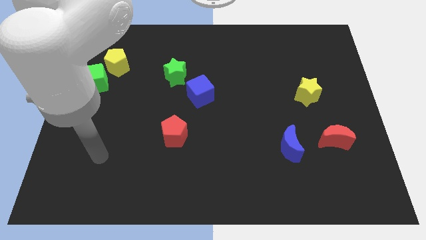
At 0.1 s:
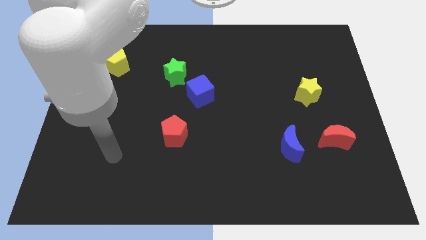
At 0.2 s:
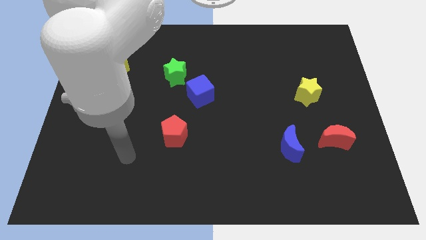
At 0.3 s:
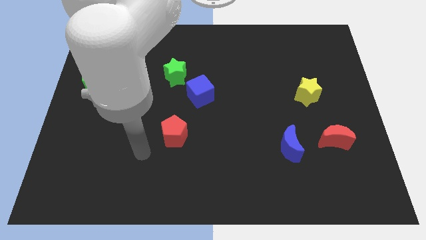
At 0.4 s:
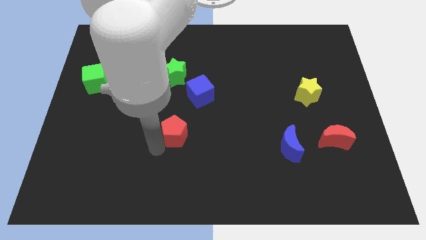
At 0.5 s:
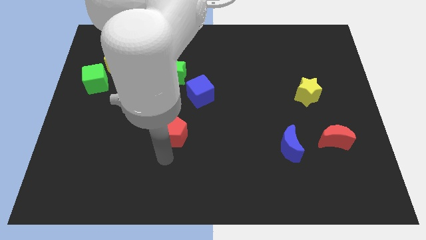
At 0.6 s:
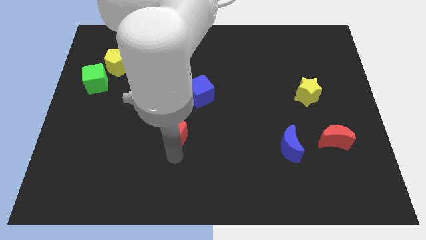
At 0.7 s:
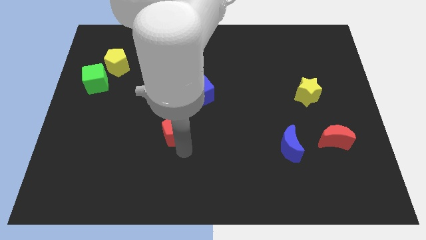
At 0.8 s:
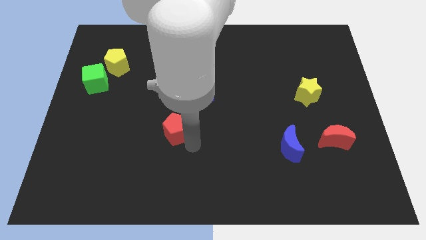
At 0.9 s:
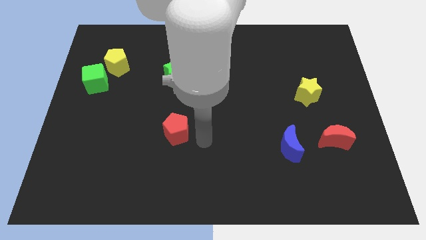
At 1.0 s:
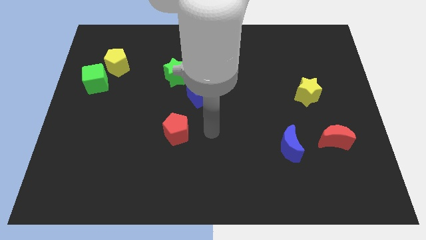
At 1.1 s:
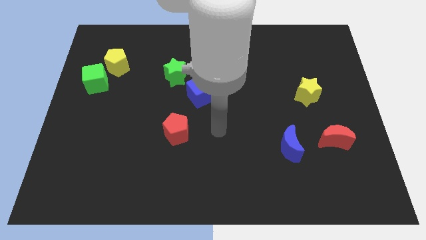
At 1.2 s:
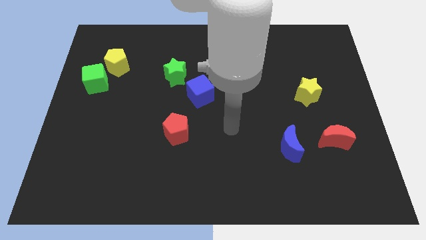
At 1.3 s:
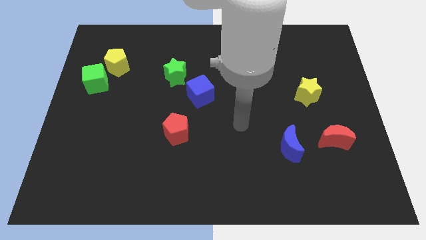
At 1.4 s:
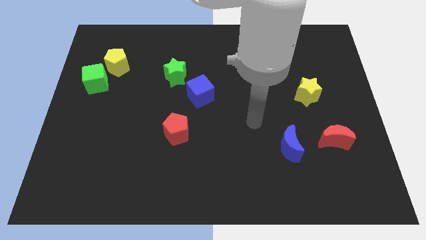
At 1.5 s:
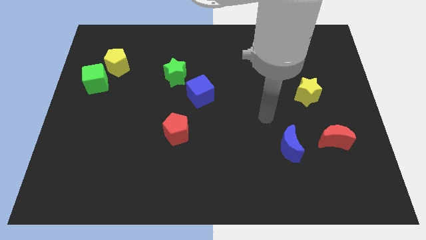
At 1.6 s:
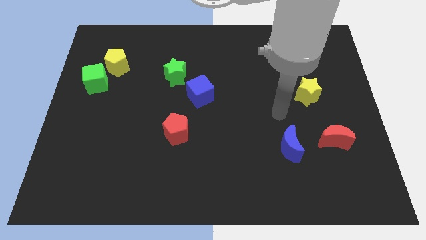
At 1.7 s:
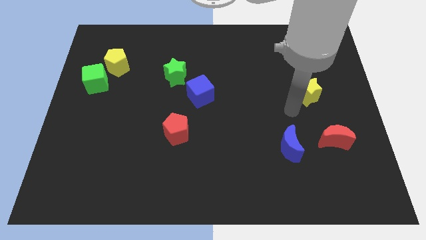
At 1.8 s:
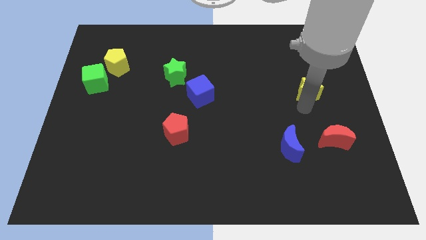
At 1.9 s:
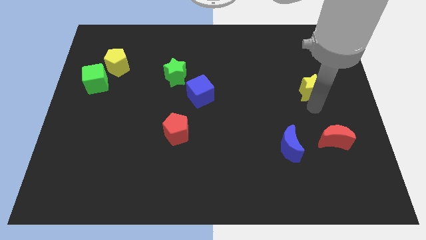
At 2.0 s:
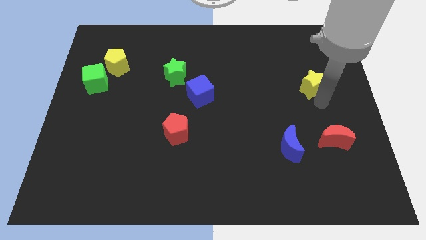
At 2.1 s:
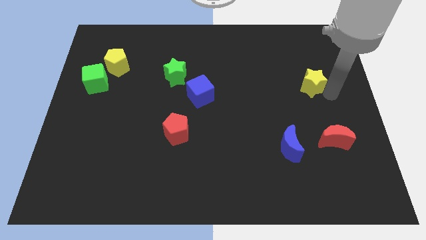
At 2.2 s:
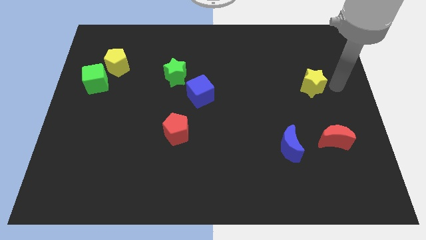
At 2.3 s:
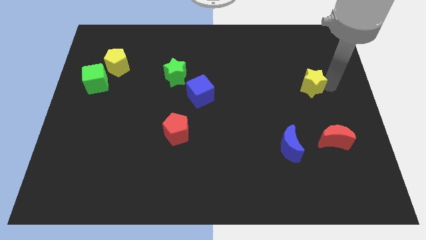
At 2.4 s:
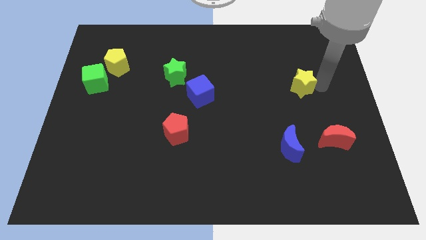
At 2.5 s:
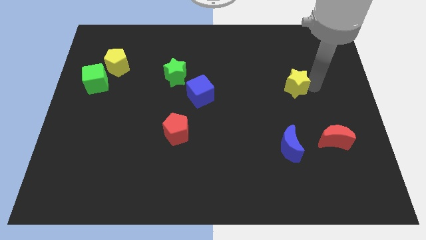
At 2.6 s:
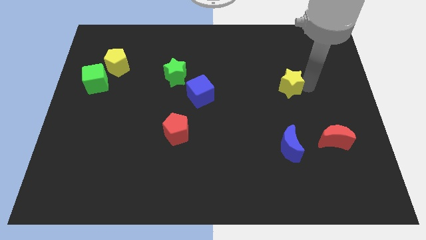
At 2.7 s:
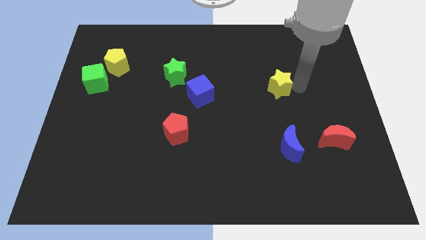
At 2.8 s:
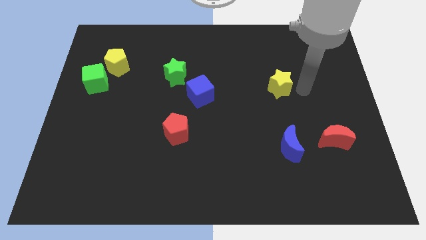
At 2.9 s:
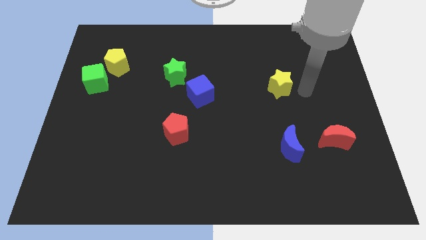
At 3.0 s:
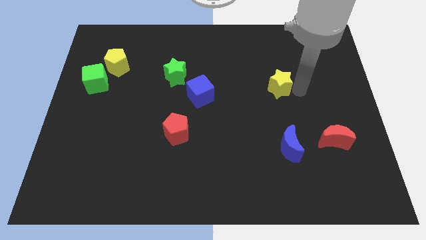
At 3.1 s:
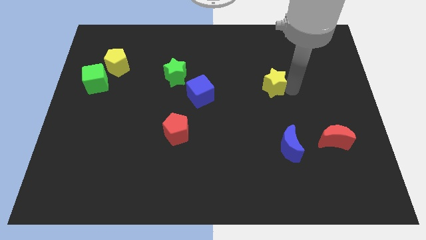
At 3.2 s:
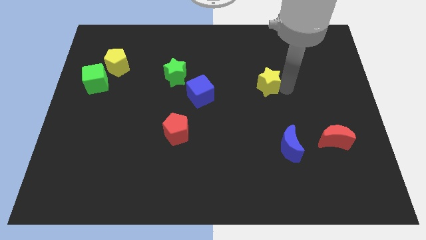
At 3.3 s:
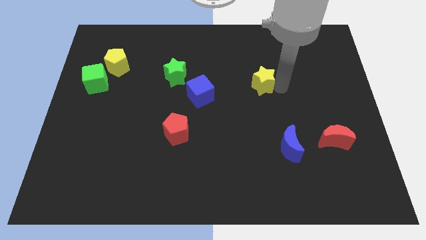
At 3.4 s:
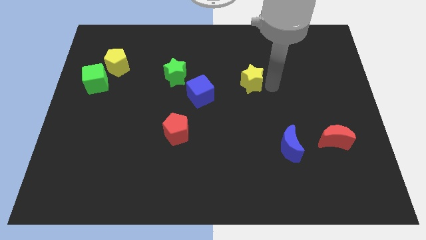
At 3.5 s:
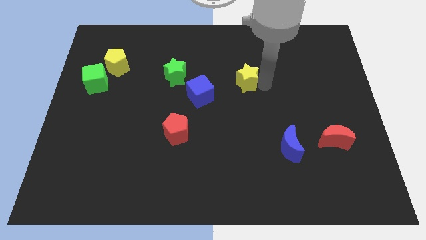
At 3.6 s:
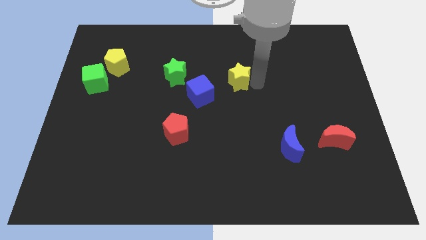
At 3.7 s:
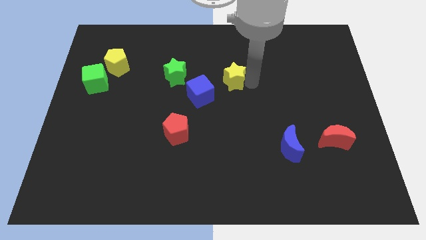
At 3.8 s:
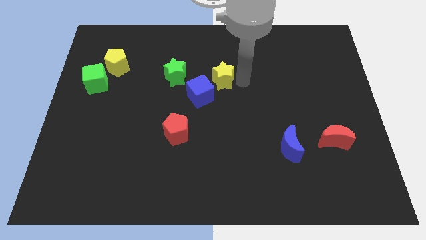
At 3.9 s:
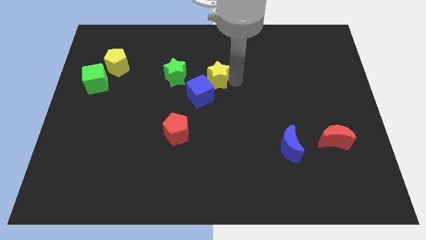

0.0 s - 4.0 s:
slide the yellow star to the left

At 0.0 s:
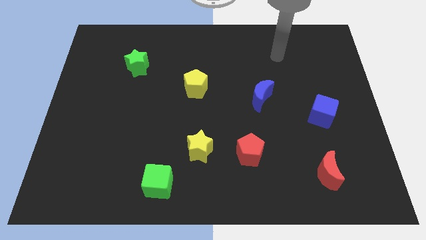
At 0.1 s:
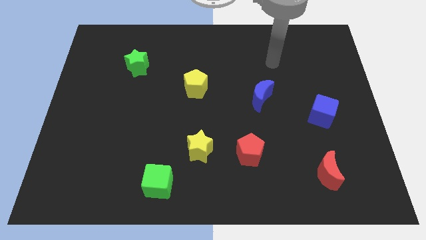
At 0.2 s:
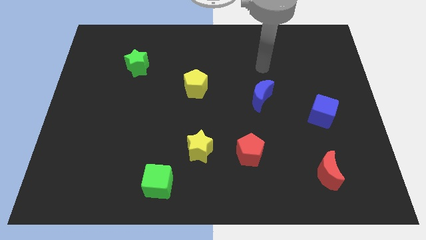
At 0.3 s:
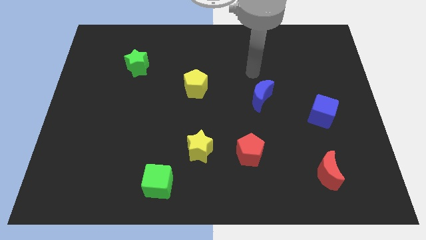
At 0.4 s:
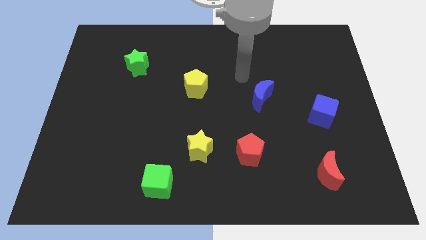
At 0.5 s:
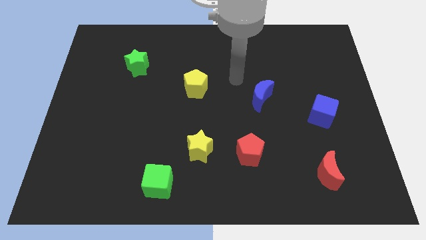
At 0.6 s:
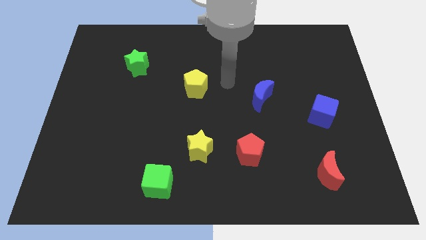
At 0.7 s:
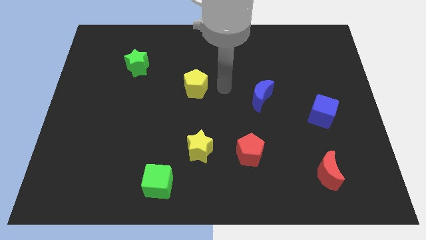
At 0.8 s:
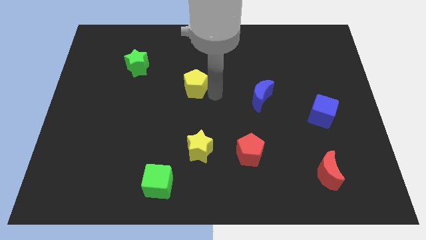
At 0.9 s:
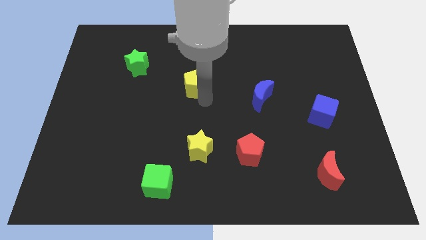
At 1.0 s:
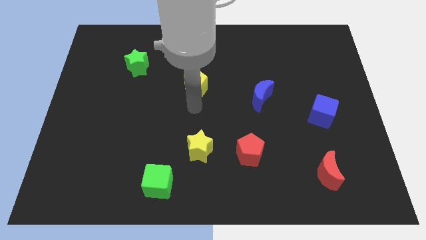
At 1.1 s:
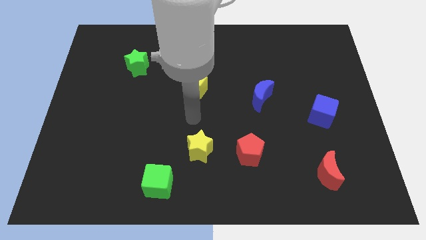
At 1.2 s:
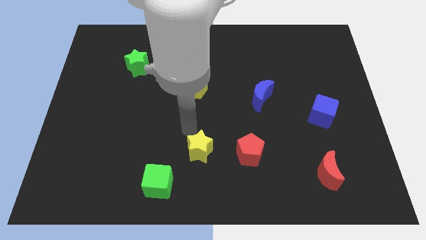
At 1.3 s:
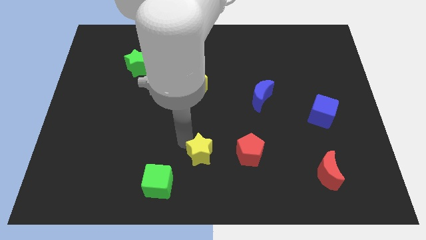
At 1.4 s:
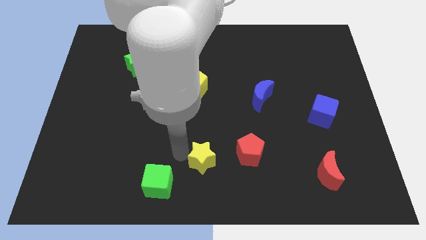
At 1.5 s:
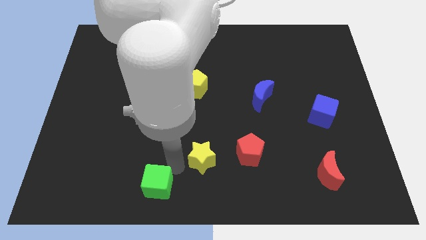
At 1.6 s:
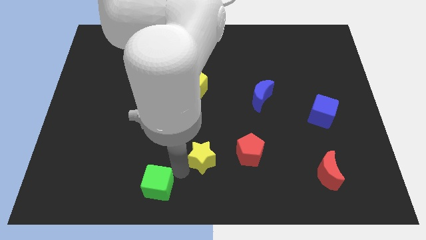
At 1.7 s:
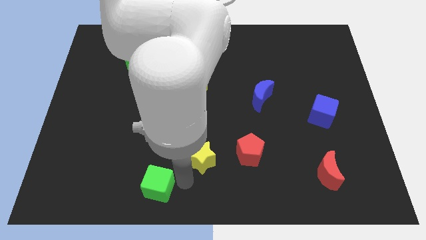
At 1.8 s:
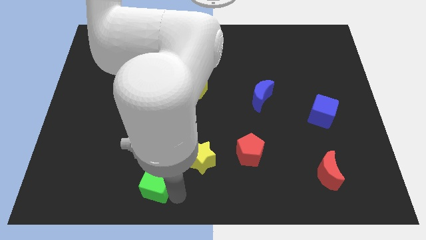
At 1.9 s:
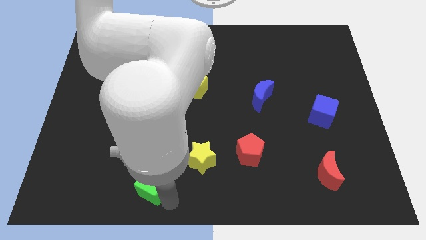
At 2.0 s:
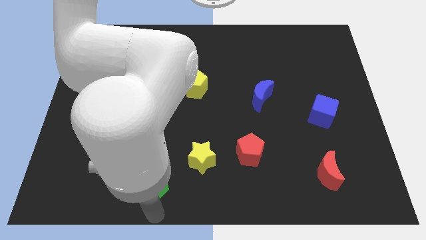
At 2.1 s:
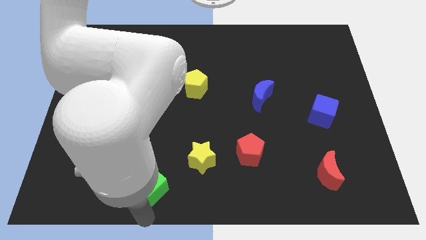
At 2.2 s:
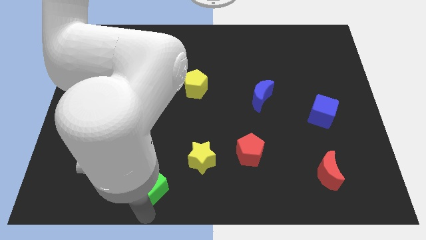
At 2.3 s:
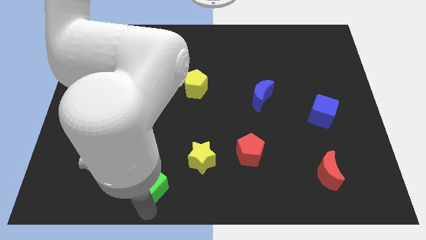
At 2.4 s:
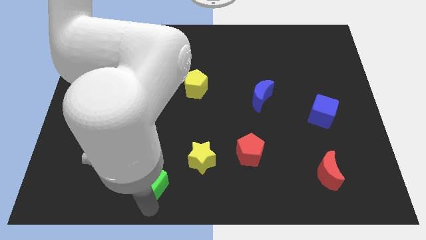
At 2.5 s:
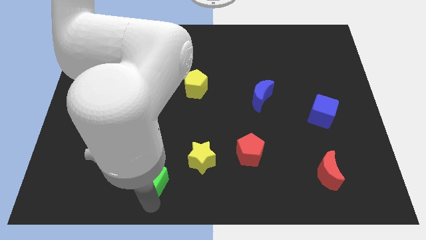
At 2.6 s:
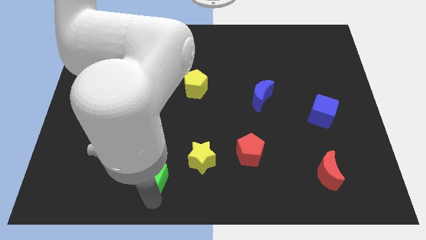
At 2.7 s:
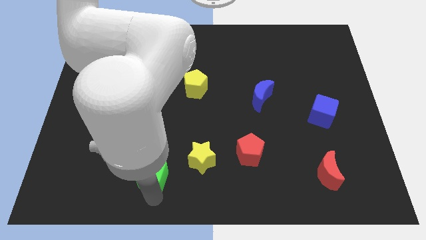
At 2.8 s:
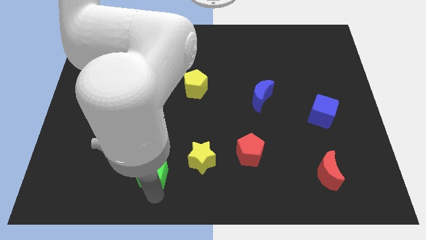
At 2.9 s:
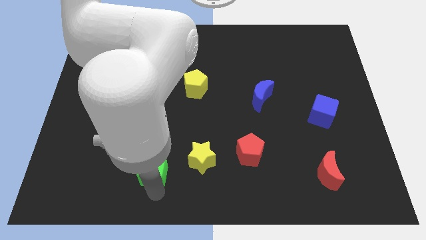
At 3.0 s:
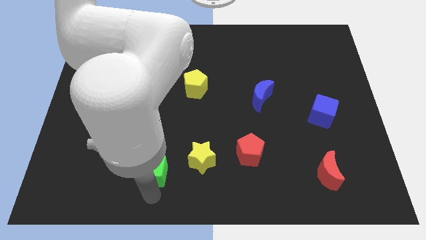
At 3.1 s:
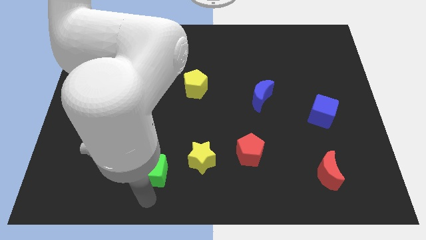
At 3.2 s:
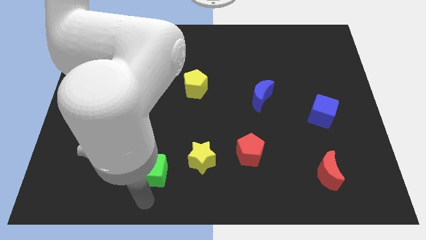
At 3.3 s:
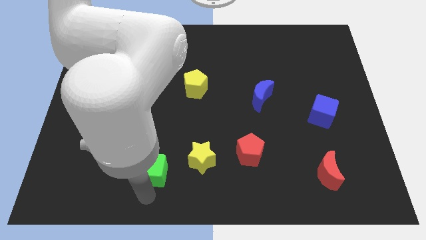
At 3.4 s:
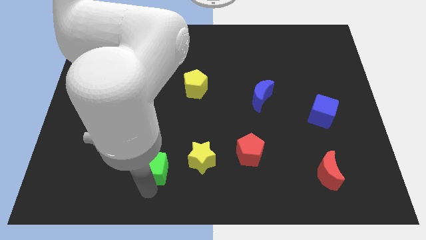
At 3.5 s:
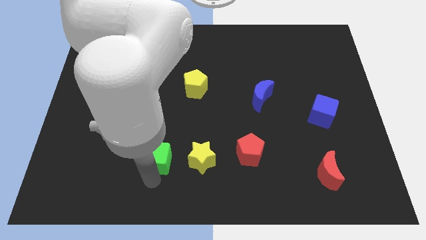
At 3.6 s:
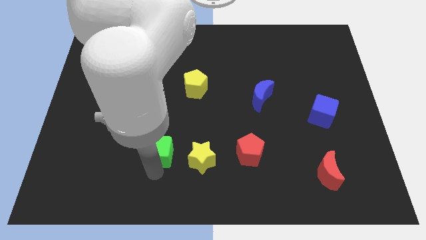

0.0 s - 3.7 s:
push the green cube a little bit up

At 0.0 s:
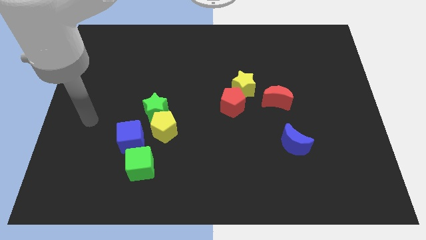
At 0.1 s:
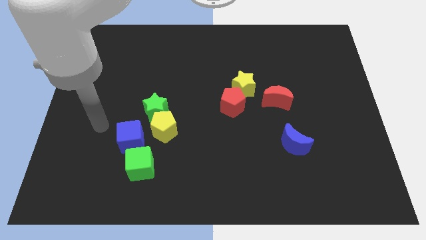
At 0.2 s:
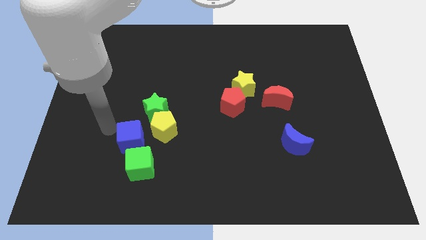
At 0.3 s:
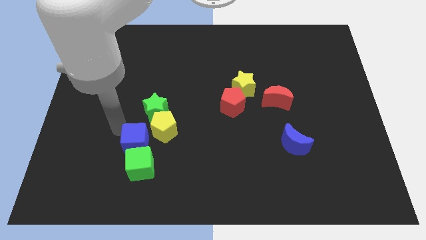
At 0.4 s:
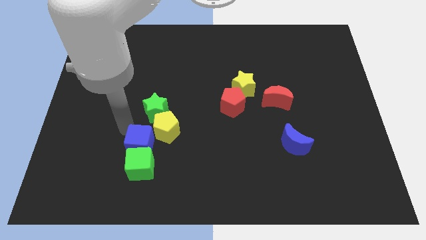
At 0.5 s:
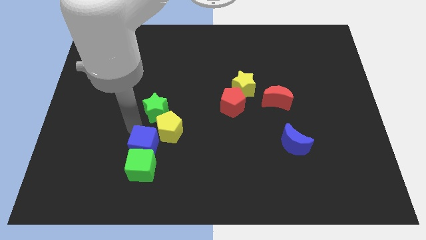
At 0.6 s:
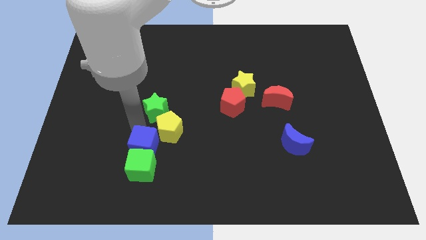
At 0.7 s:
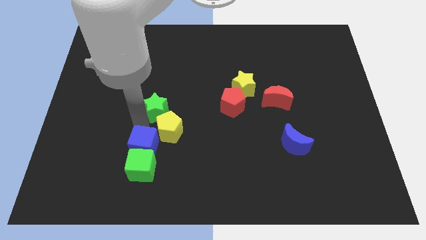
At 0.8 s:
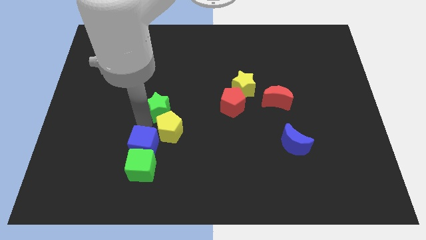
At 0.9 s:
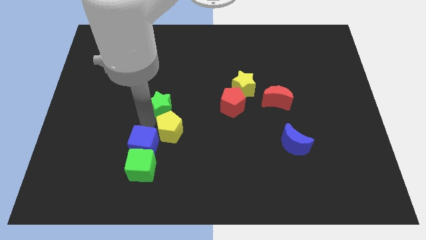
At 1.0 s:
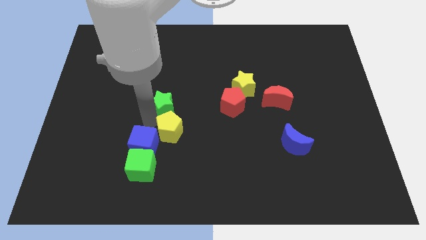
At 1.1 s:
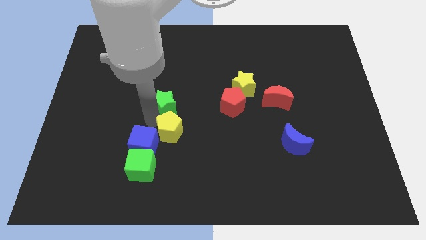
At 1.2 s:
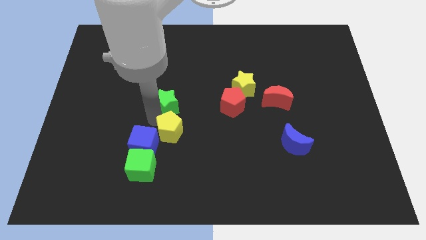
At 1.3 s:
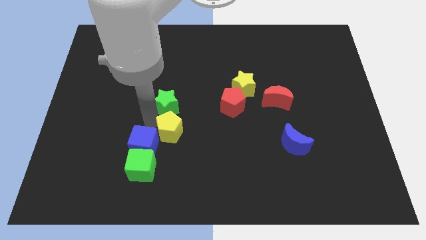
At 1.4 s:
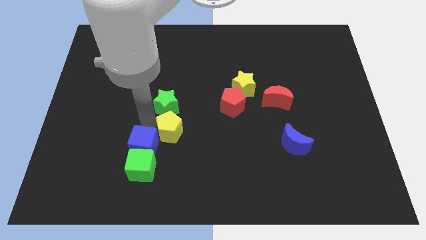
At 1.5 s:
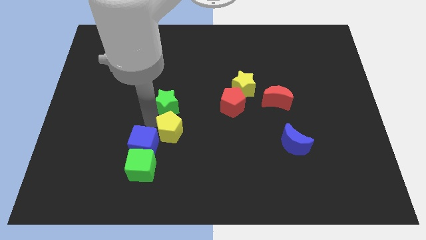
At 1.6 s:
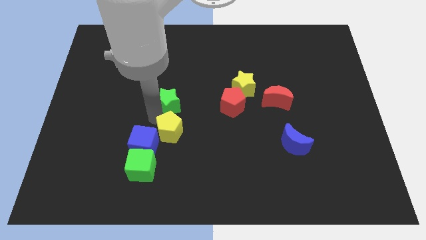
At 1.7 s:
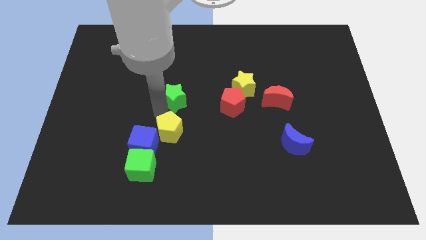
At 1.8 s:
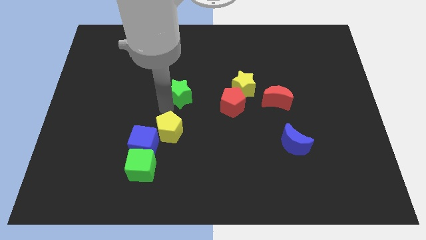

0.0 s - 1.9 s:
slightly move the green star up and to the right diagonally
